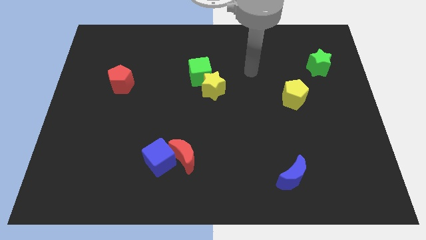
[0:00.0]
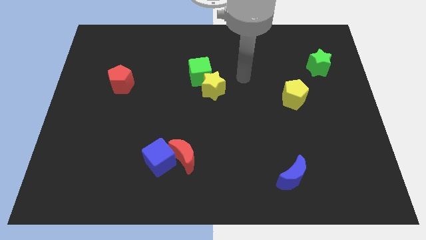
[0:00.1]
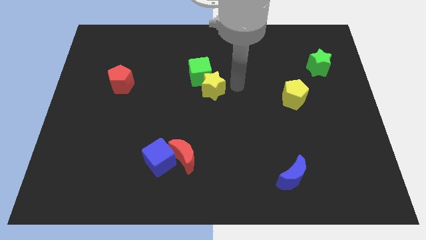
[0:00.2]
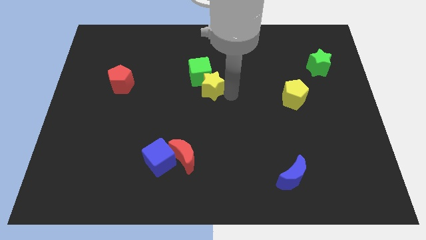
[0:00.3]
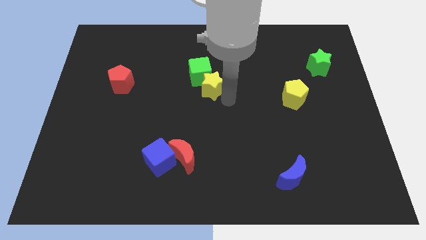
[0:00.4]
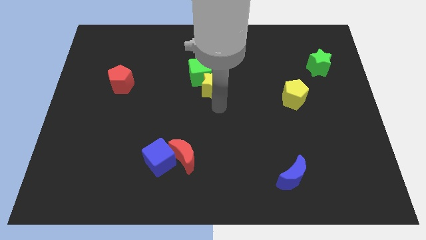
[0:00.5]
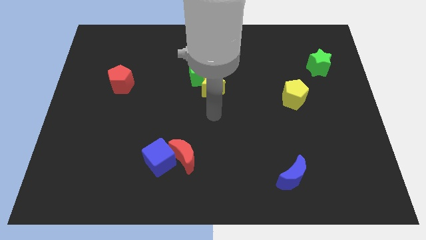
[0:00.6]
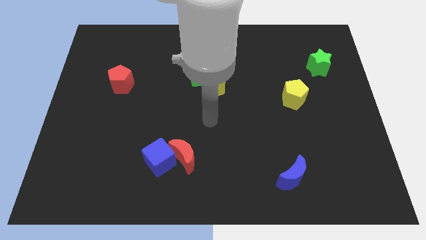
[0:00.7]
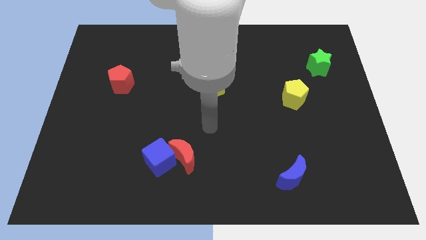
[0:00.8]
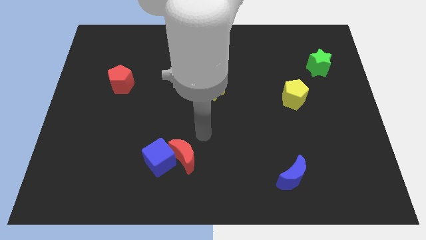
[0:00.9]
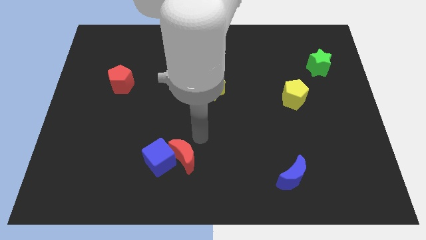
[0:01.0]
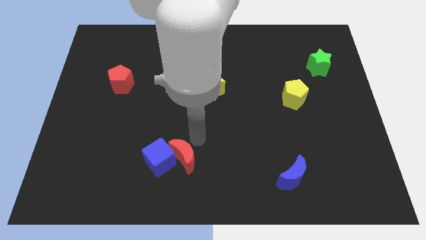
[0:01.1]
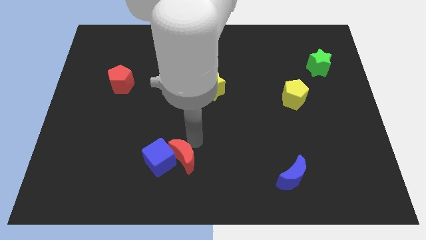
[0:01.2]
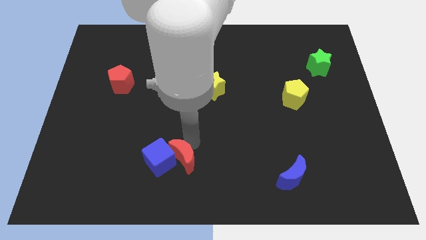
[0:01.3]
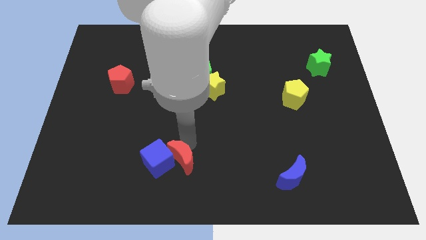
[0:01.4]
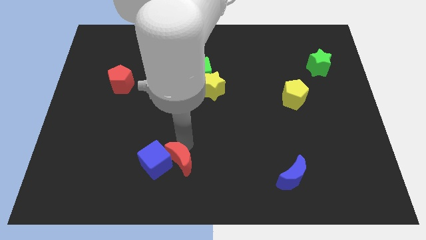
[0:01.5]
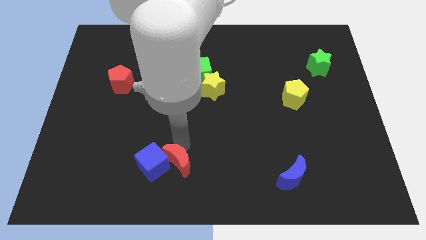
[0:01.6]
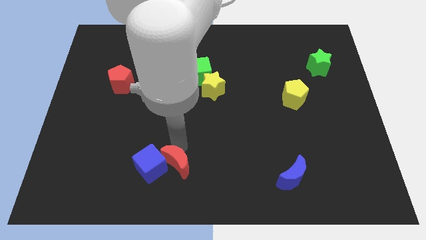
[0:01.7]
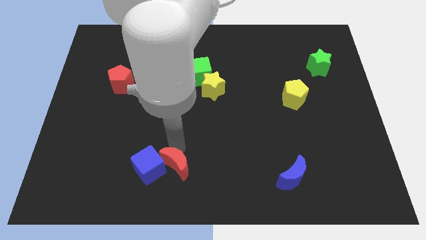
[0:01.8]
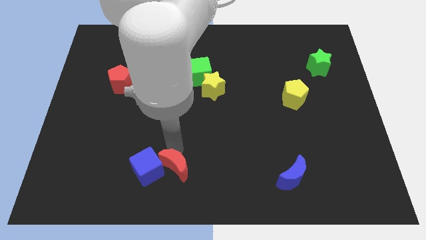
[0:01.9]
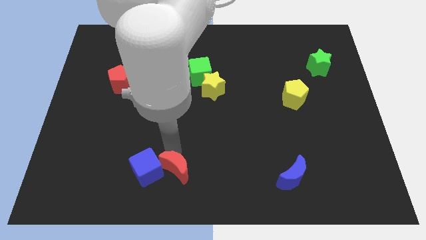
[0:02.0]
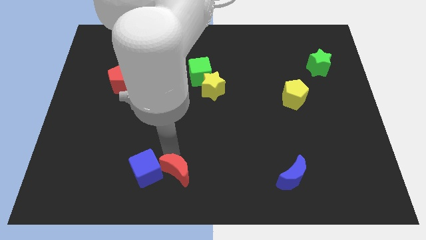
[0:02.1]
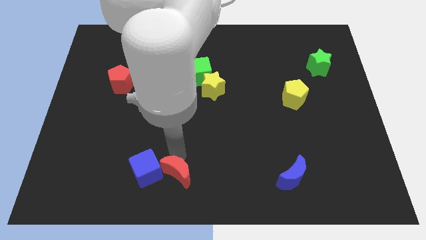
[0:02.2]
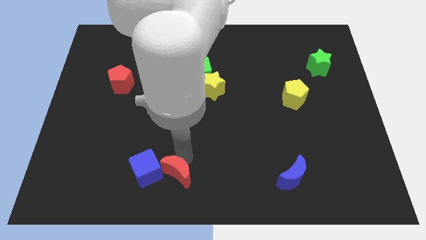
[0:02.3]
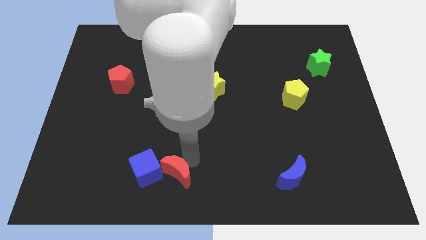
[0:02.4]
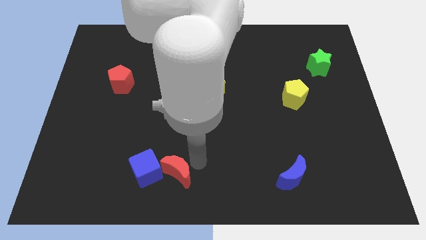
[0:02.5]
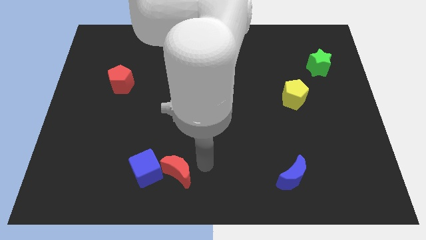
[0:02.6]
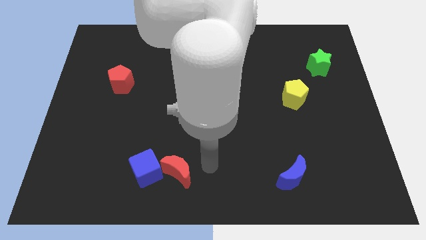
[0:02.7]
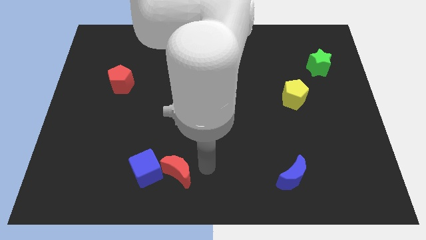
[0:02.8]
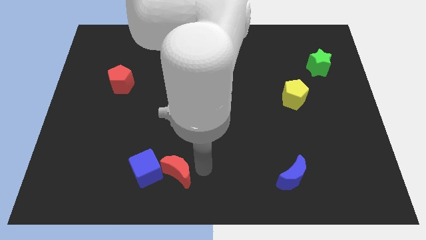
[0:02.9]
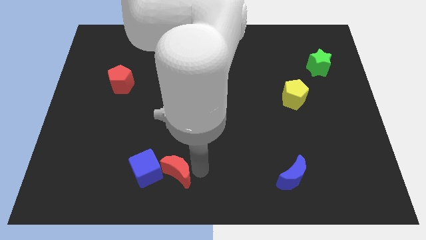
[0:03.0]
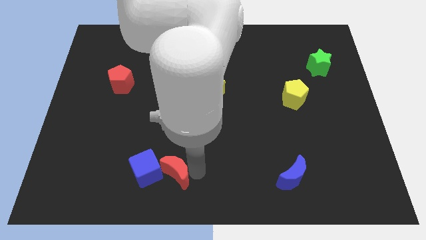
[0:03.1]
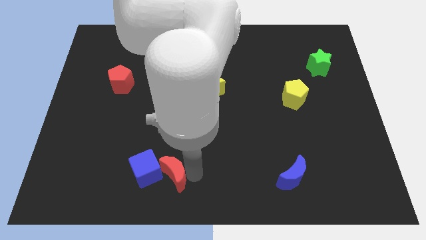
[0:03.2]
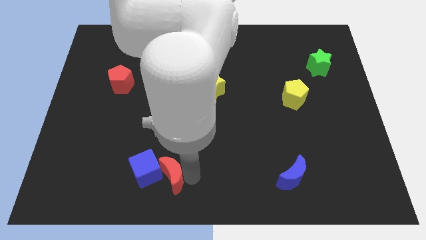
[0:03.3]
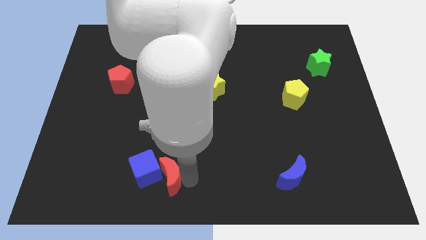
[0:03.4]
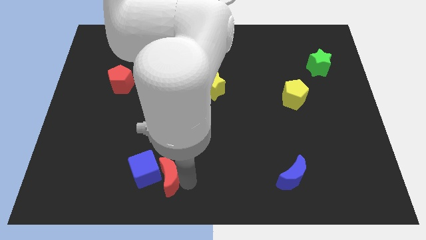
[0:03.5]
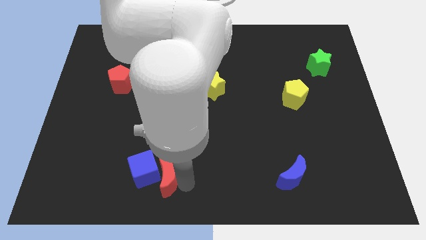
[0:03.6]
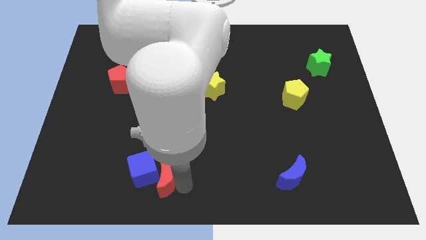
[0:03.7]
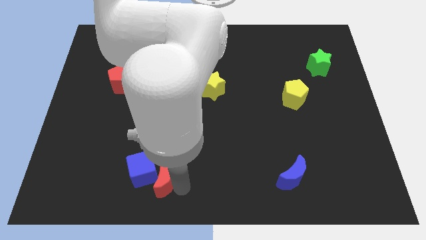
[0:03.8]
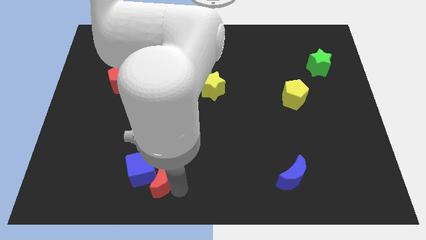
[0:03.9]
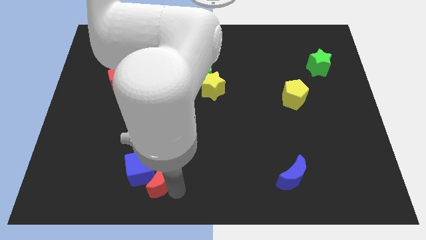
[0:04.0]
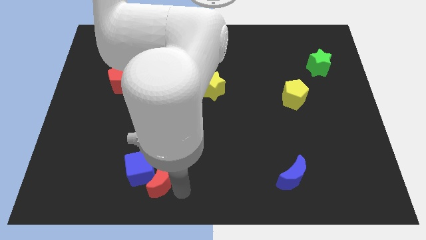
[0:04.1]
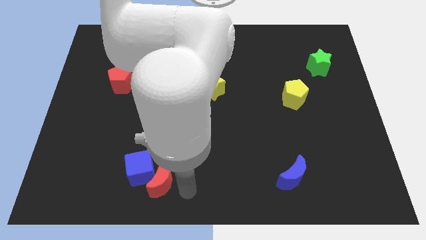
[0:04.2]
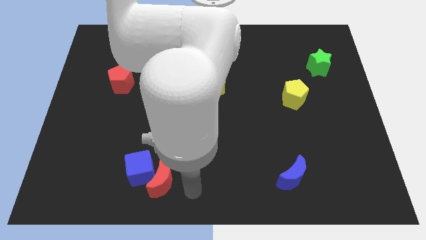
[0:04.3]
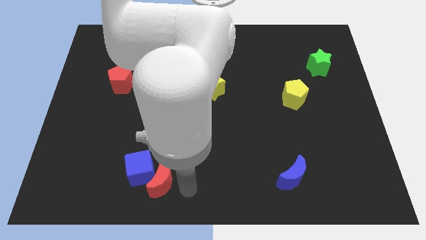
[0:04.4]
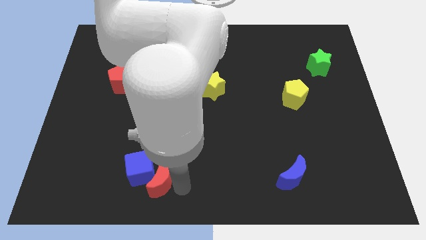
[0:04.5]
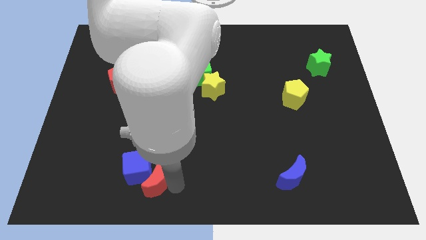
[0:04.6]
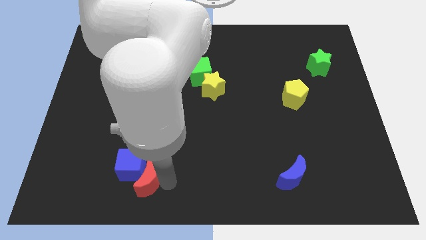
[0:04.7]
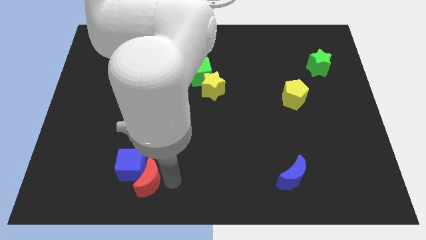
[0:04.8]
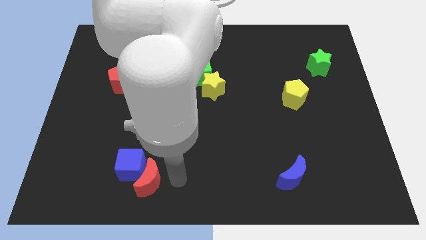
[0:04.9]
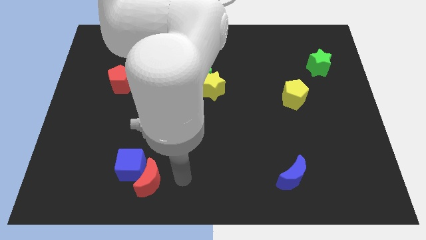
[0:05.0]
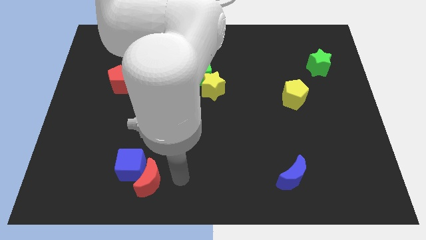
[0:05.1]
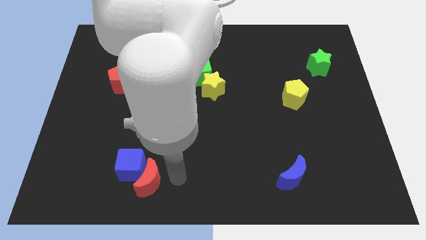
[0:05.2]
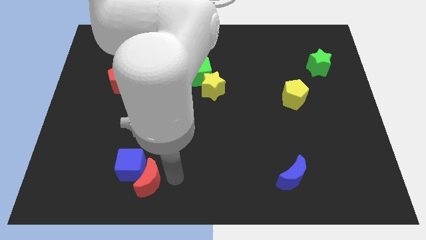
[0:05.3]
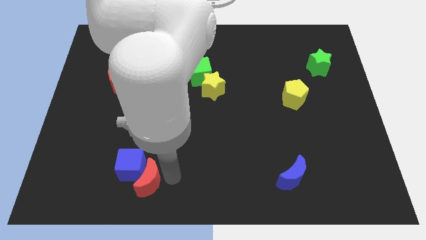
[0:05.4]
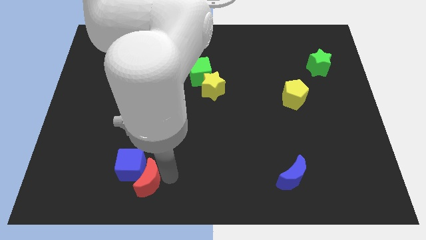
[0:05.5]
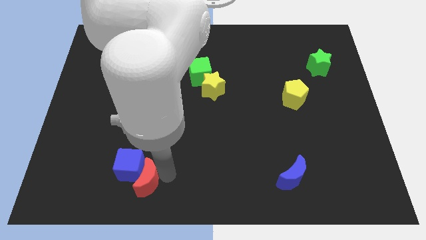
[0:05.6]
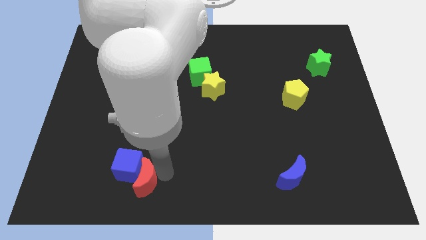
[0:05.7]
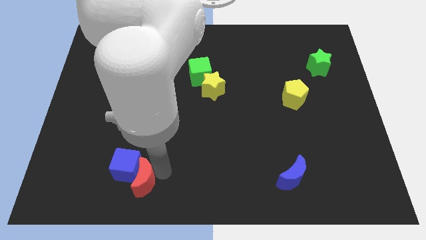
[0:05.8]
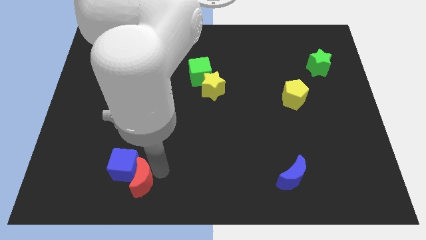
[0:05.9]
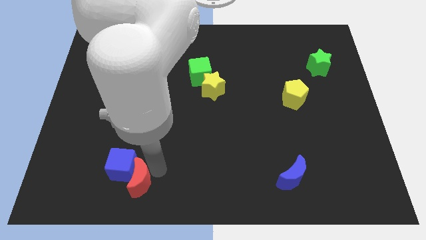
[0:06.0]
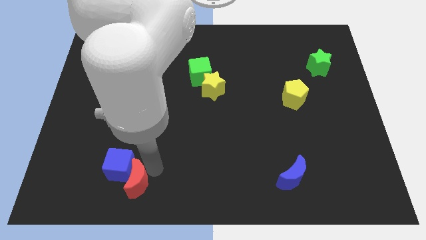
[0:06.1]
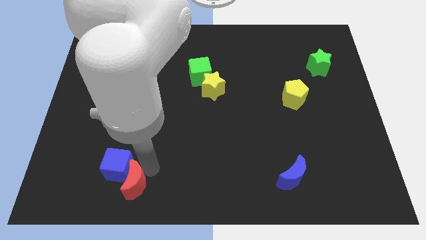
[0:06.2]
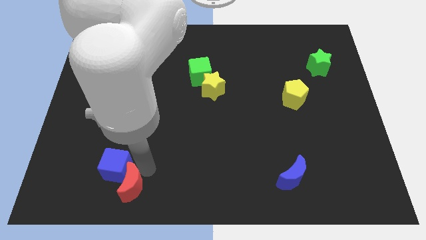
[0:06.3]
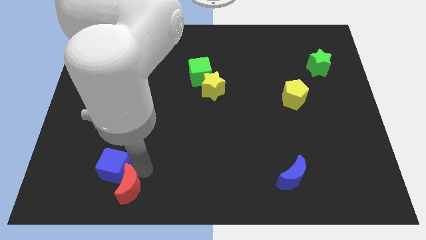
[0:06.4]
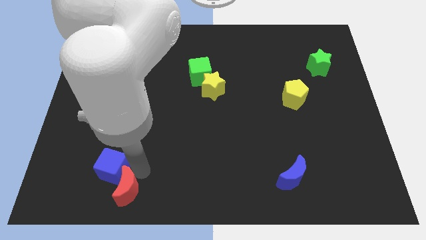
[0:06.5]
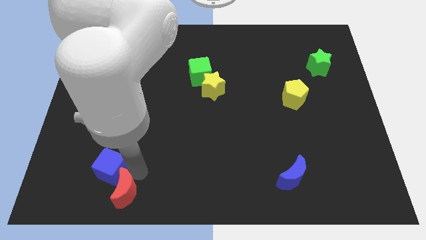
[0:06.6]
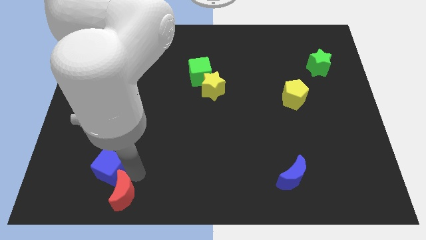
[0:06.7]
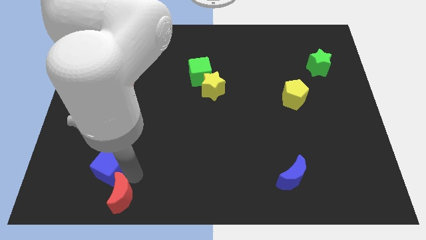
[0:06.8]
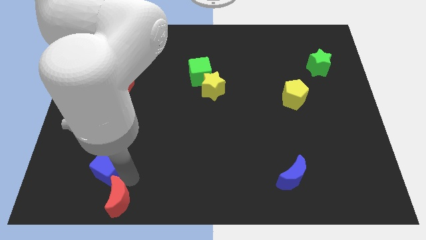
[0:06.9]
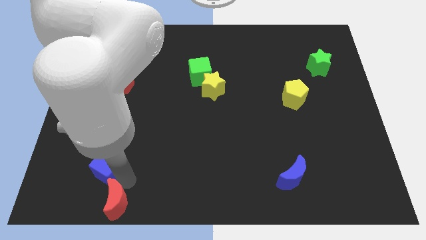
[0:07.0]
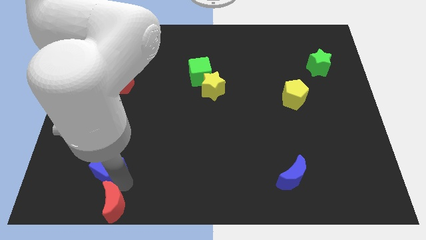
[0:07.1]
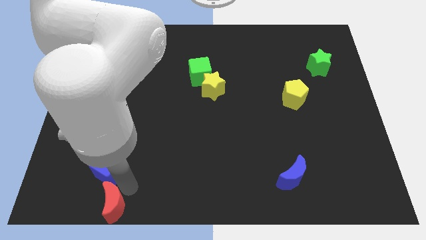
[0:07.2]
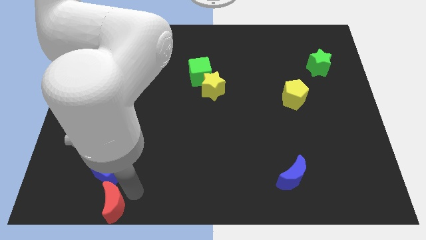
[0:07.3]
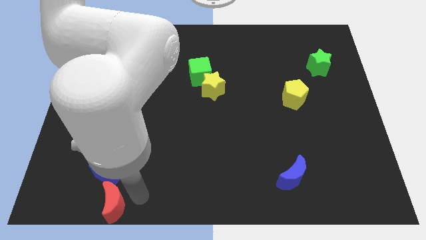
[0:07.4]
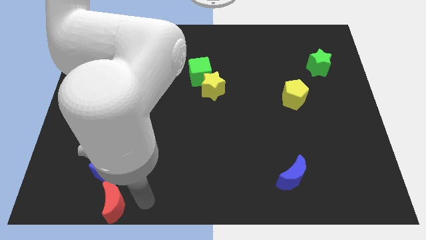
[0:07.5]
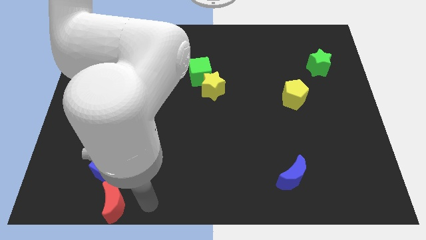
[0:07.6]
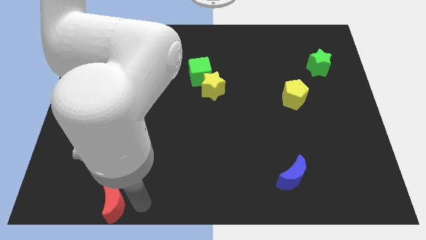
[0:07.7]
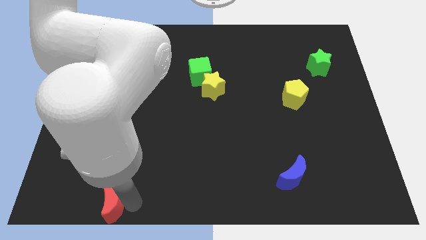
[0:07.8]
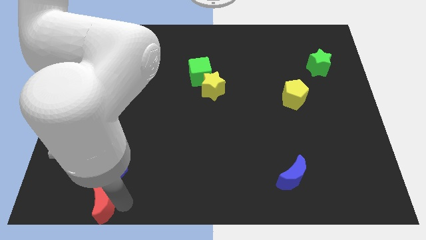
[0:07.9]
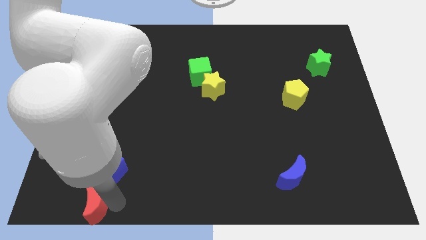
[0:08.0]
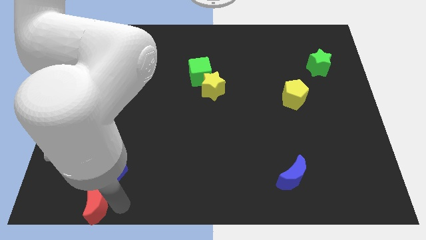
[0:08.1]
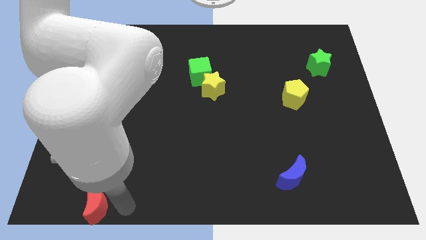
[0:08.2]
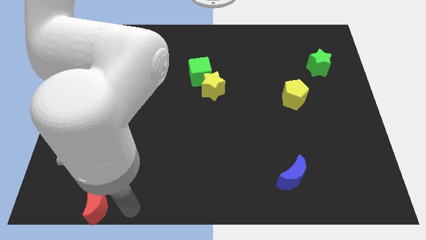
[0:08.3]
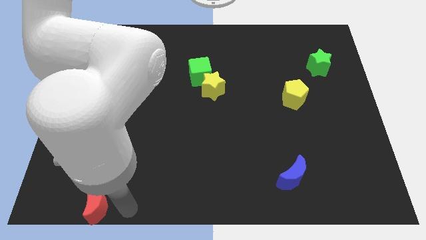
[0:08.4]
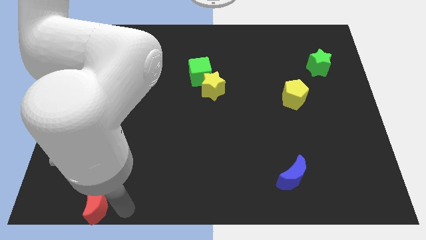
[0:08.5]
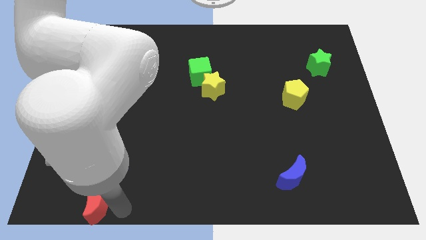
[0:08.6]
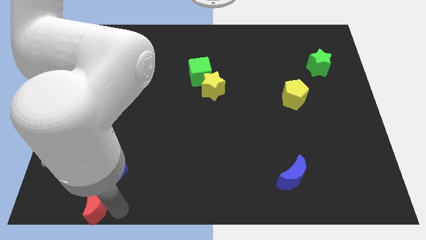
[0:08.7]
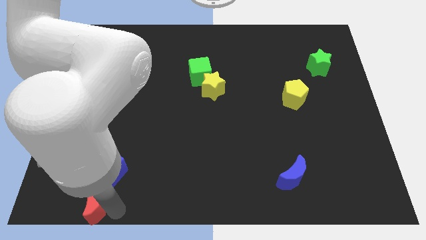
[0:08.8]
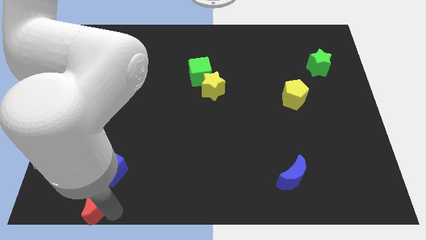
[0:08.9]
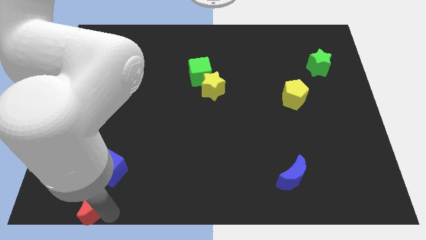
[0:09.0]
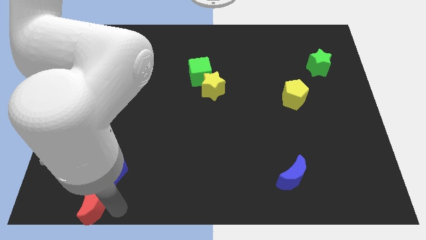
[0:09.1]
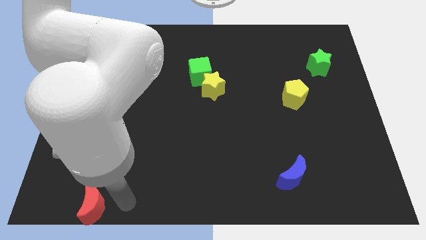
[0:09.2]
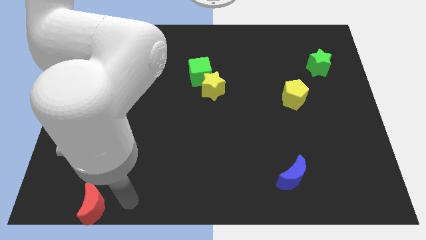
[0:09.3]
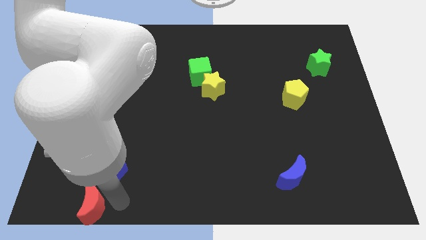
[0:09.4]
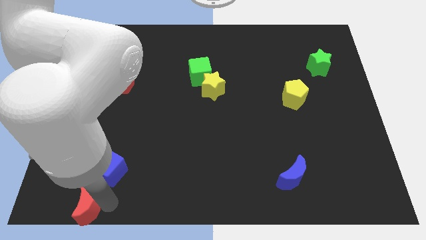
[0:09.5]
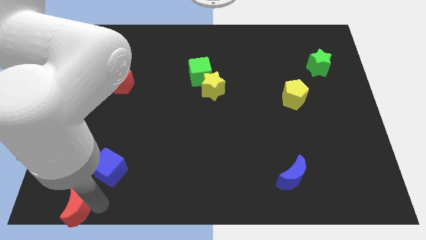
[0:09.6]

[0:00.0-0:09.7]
push the red moon to the bottom left of the board
